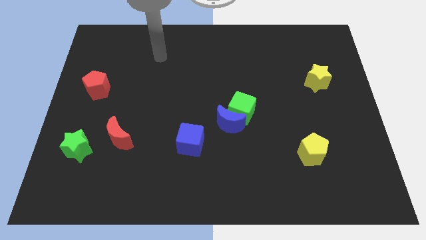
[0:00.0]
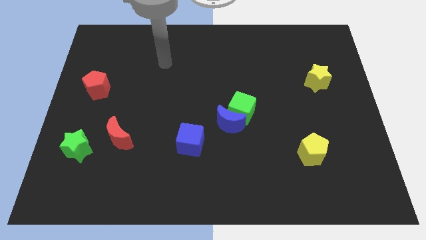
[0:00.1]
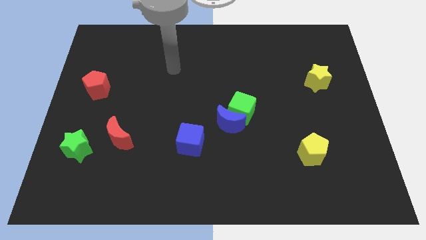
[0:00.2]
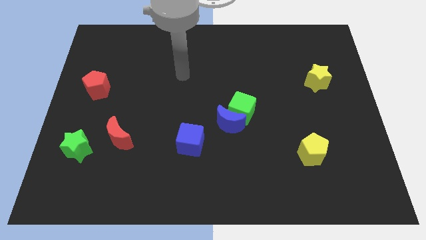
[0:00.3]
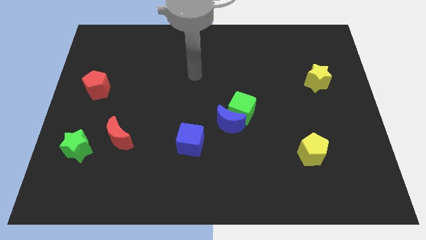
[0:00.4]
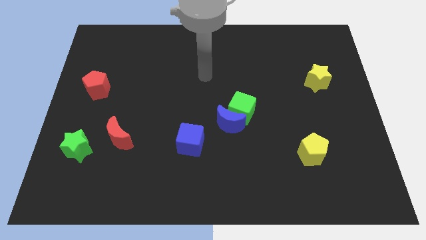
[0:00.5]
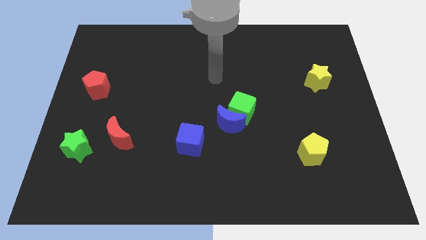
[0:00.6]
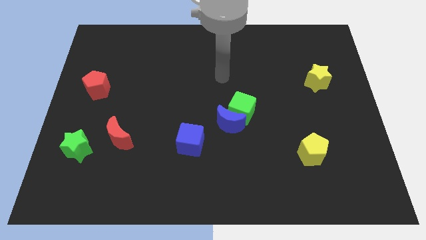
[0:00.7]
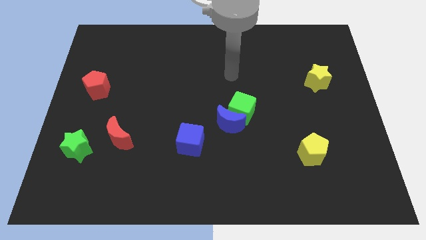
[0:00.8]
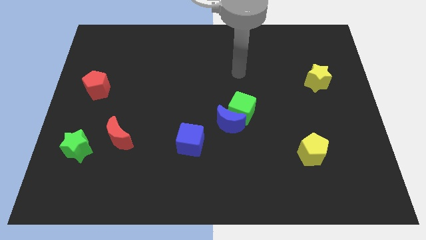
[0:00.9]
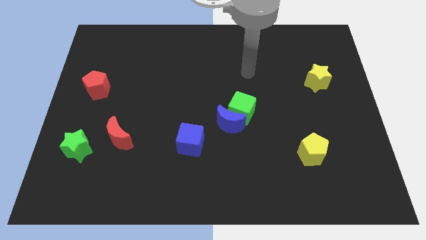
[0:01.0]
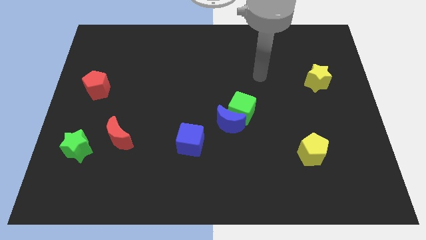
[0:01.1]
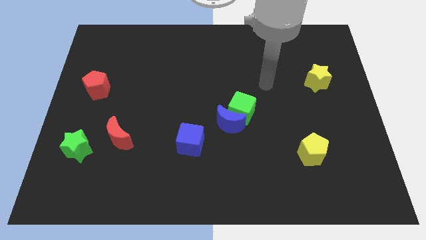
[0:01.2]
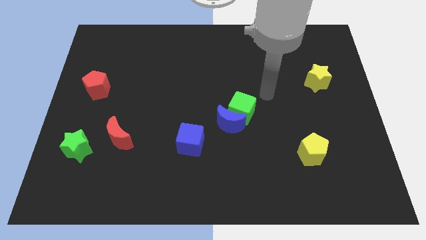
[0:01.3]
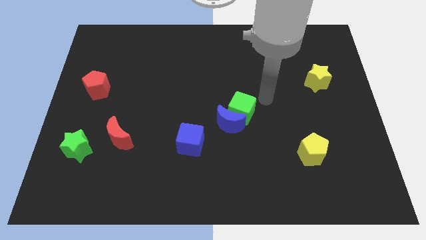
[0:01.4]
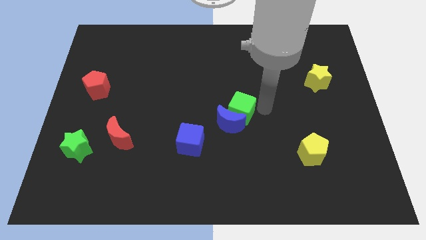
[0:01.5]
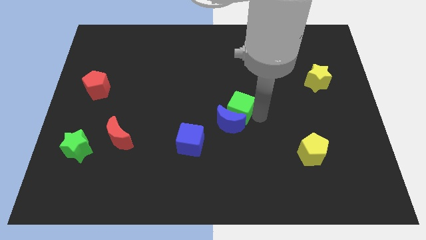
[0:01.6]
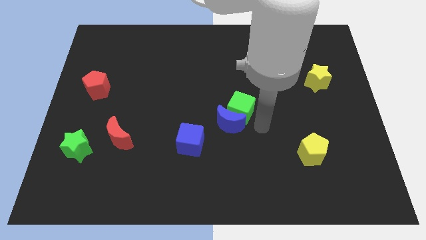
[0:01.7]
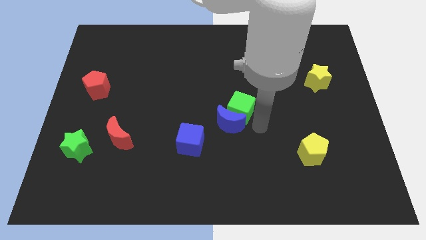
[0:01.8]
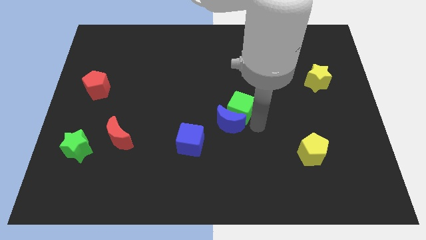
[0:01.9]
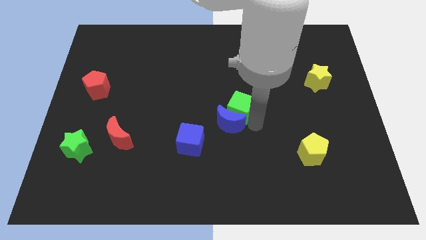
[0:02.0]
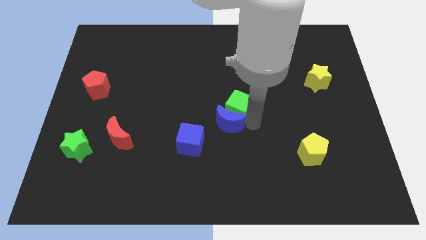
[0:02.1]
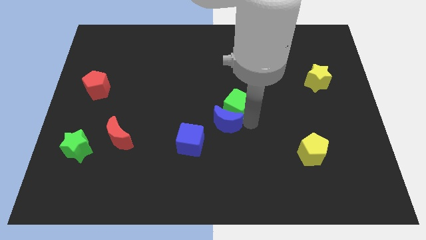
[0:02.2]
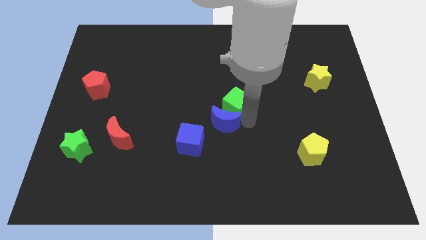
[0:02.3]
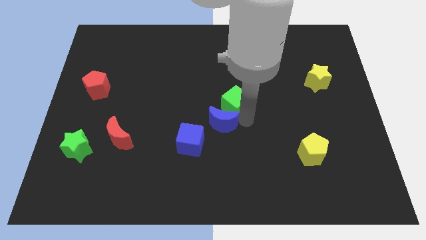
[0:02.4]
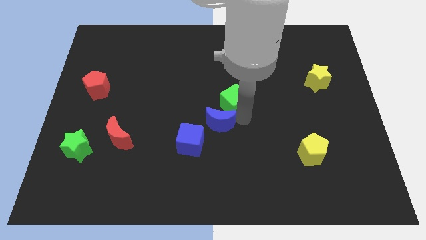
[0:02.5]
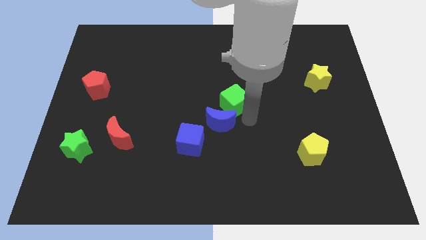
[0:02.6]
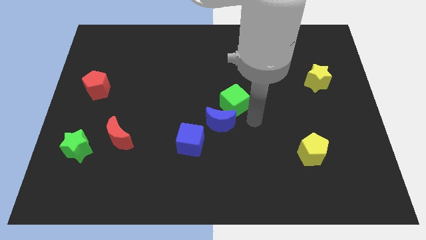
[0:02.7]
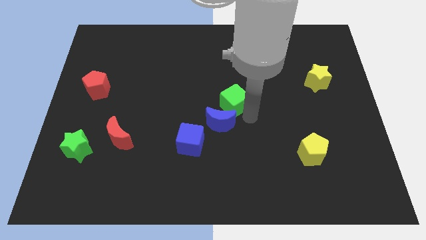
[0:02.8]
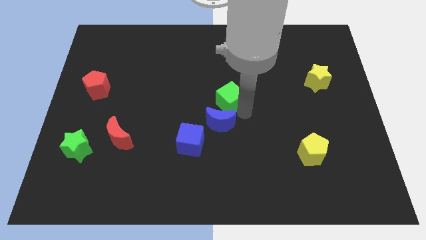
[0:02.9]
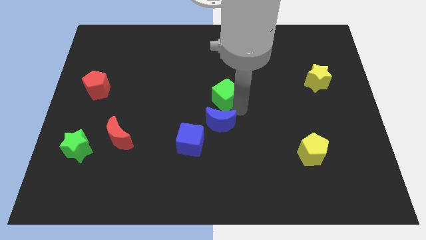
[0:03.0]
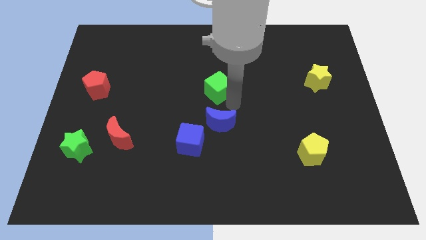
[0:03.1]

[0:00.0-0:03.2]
slightly slide the green cube diagonally upwards and to the left

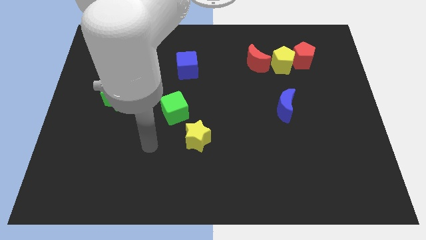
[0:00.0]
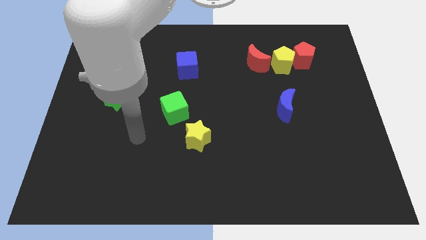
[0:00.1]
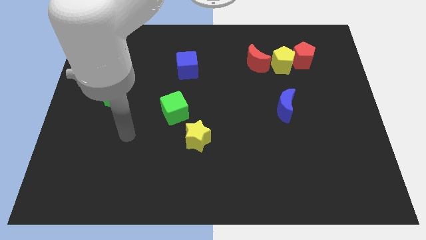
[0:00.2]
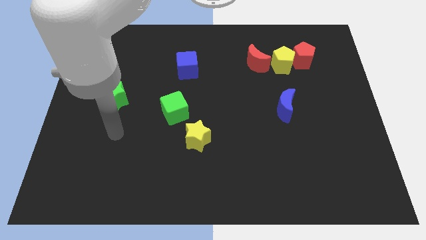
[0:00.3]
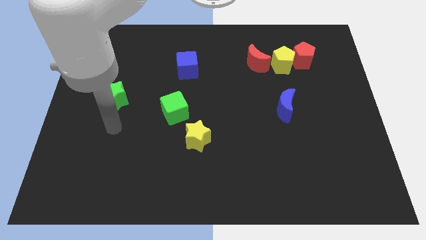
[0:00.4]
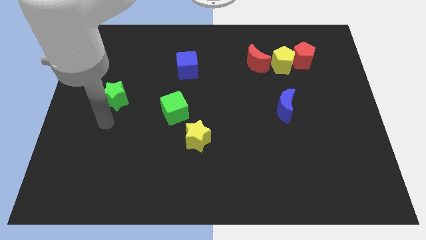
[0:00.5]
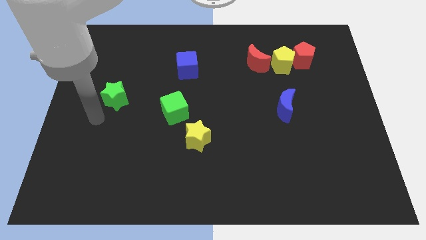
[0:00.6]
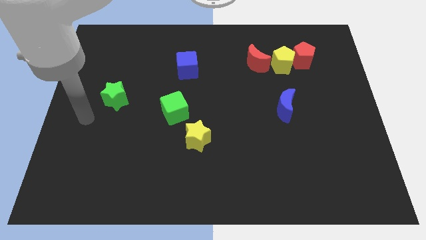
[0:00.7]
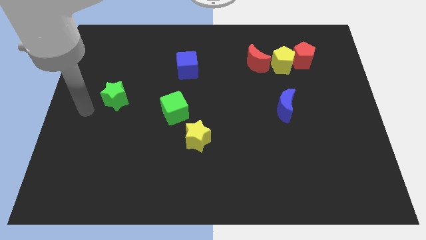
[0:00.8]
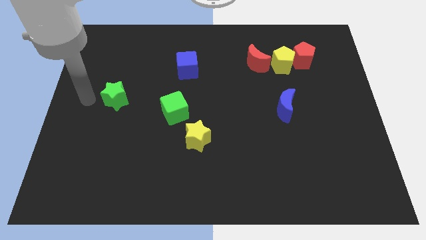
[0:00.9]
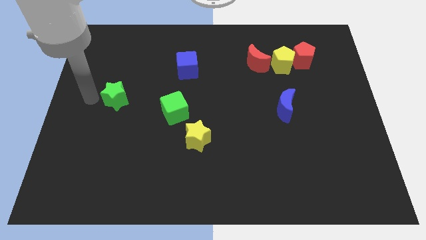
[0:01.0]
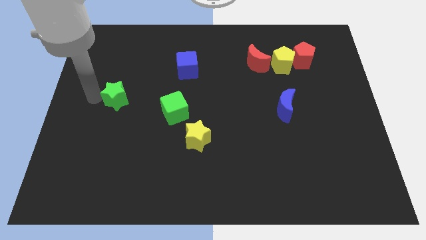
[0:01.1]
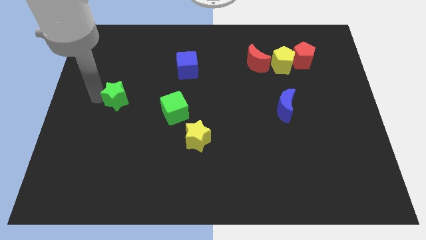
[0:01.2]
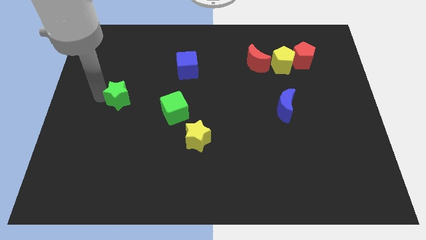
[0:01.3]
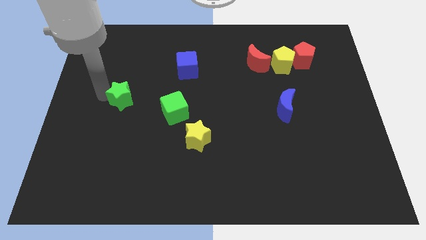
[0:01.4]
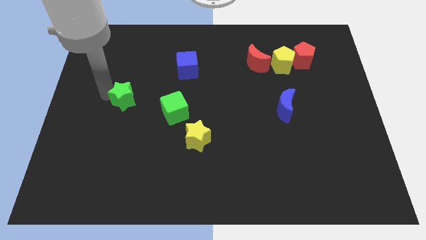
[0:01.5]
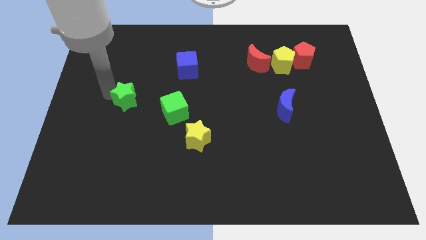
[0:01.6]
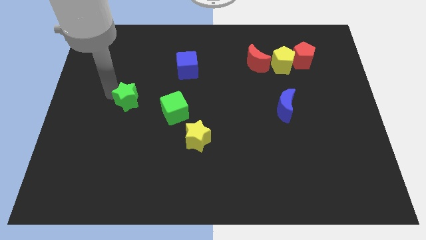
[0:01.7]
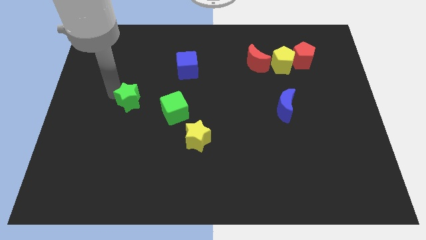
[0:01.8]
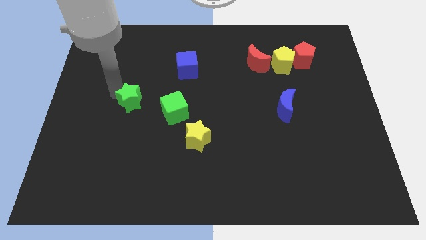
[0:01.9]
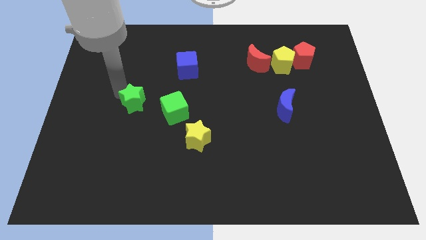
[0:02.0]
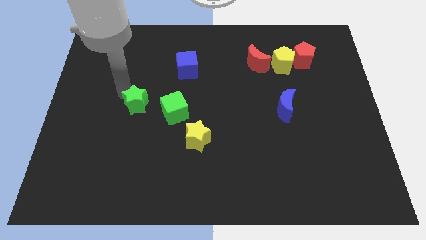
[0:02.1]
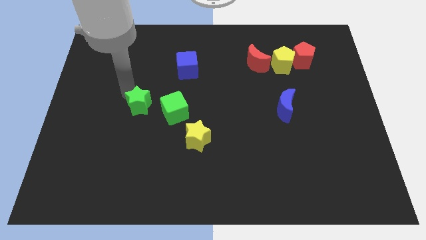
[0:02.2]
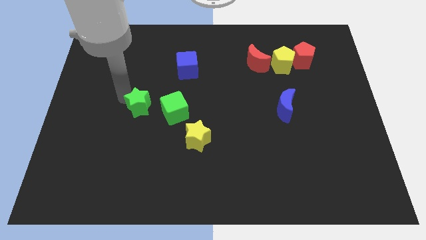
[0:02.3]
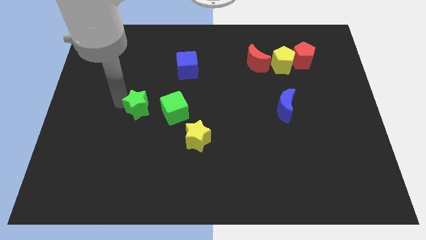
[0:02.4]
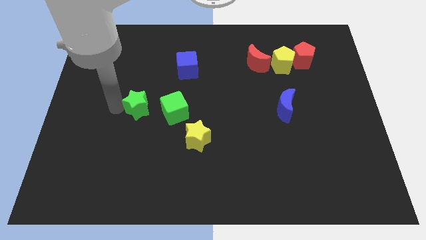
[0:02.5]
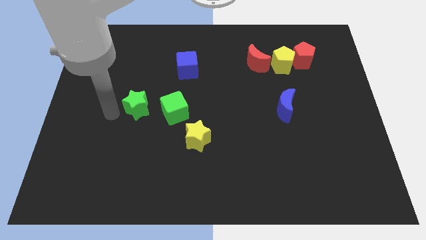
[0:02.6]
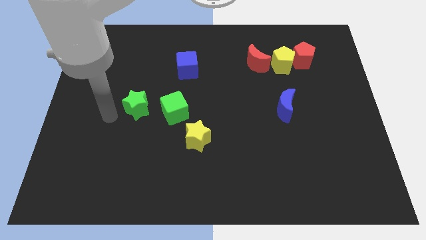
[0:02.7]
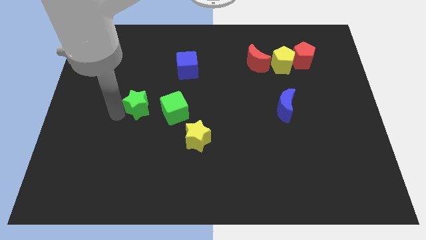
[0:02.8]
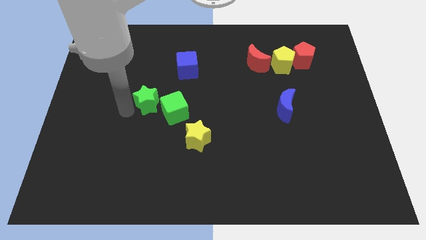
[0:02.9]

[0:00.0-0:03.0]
move the green star to the right a bit

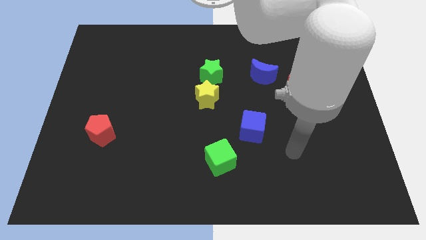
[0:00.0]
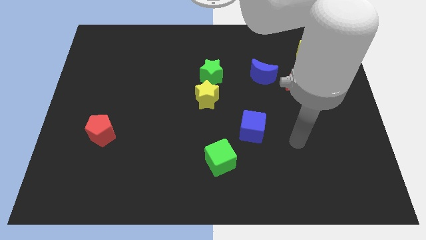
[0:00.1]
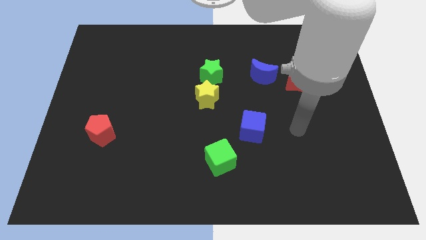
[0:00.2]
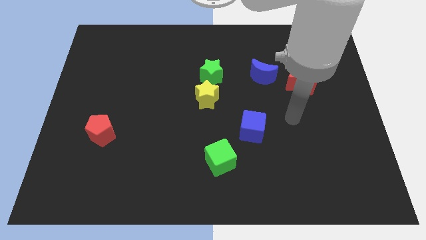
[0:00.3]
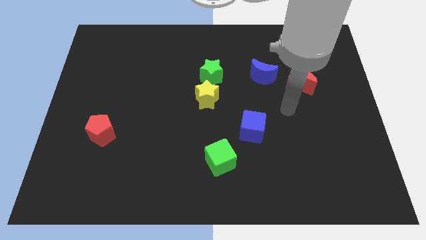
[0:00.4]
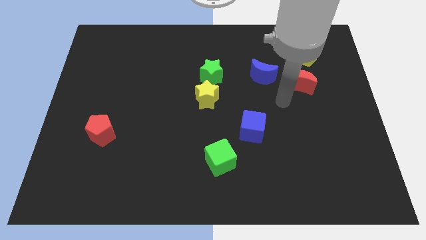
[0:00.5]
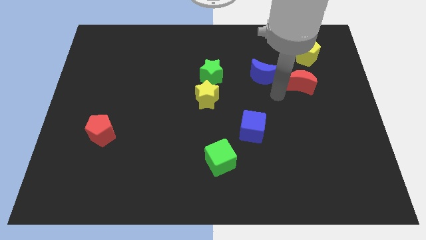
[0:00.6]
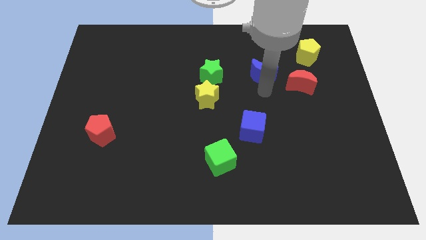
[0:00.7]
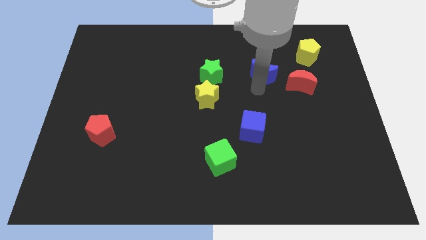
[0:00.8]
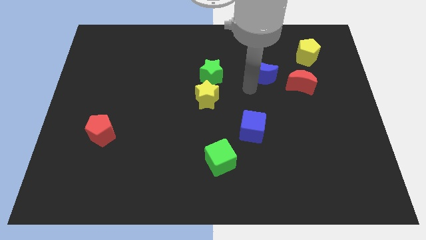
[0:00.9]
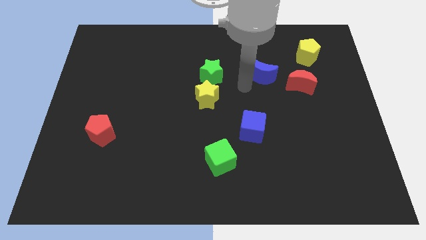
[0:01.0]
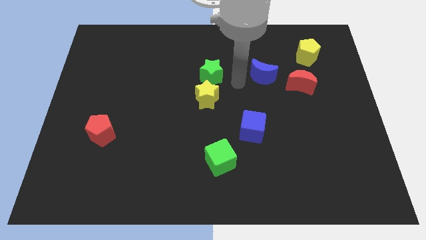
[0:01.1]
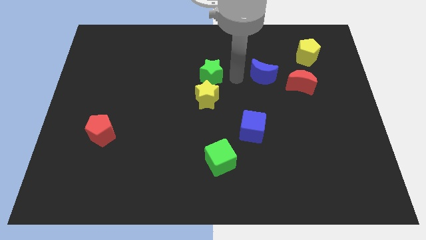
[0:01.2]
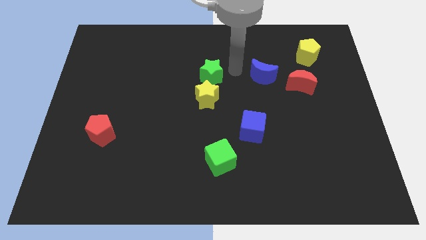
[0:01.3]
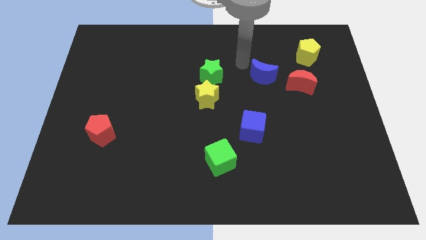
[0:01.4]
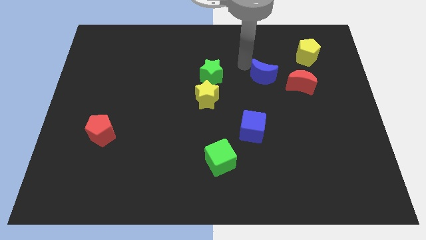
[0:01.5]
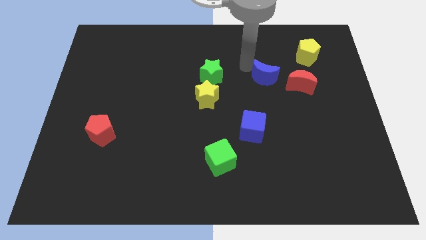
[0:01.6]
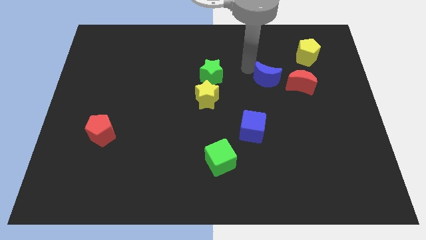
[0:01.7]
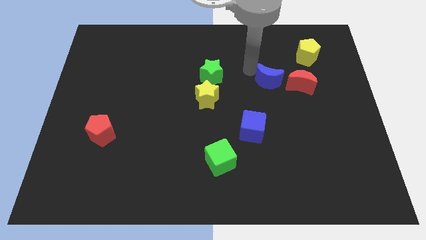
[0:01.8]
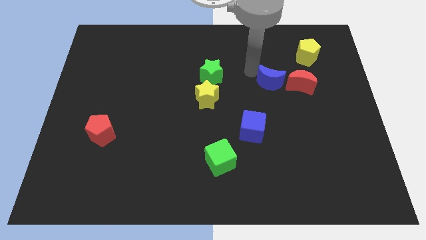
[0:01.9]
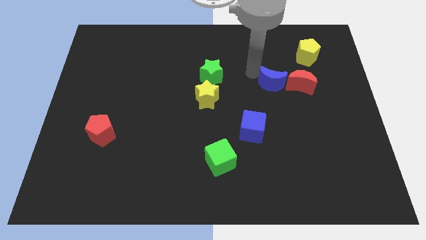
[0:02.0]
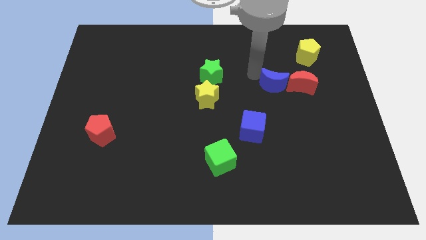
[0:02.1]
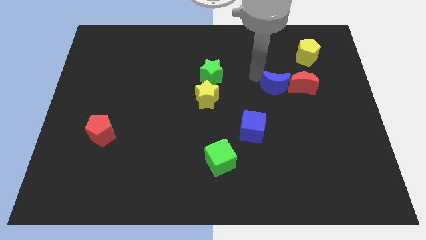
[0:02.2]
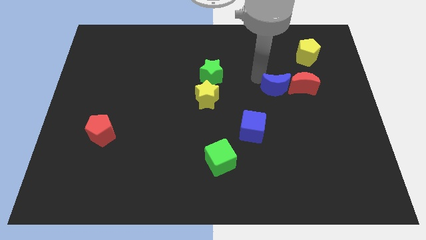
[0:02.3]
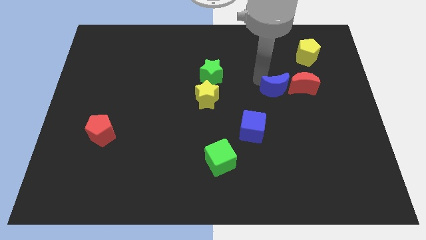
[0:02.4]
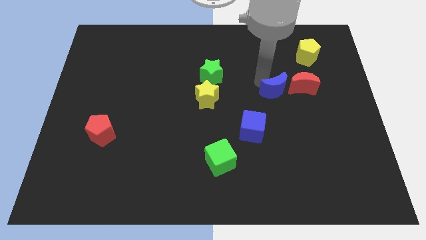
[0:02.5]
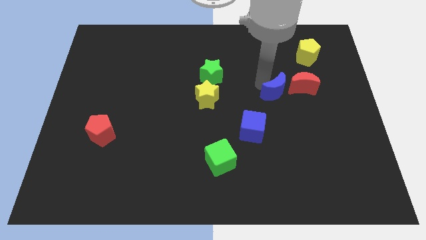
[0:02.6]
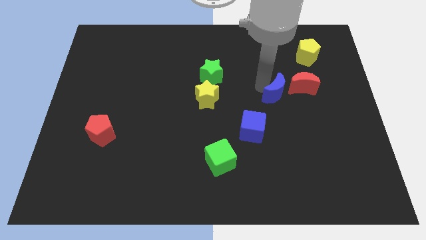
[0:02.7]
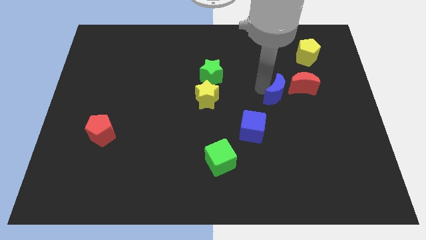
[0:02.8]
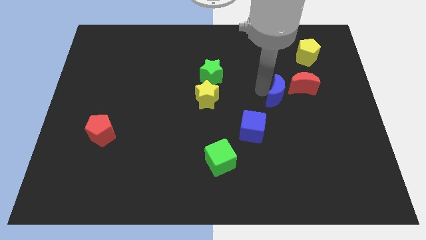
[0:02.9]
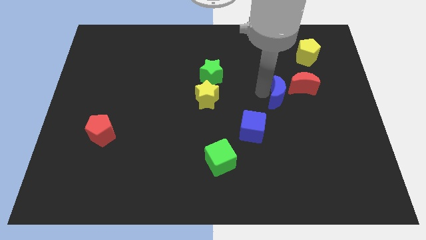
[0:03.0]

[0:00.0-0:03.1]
move the blue moon downwards and right diagonally a little bit
